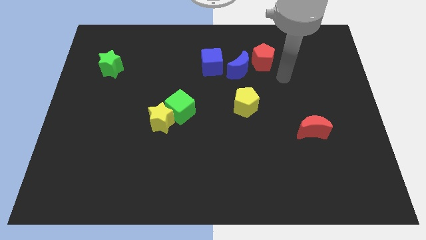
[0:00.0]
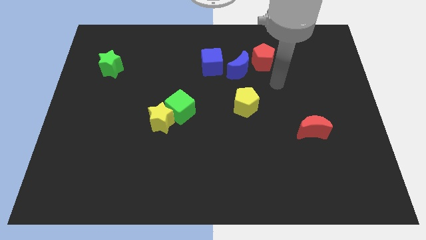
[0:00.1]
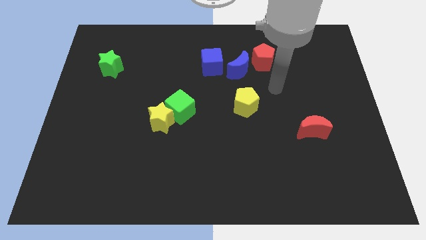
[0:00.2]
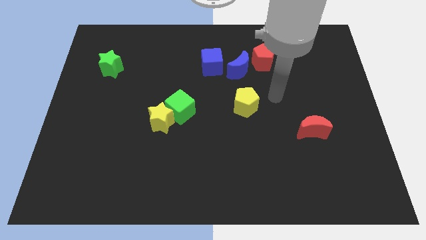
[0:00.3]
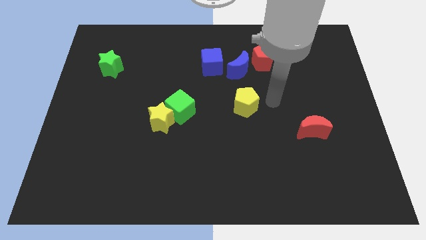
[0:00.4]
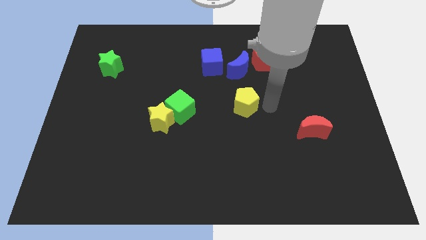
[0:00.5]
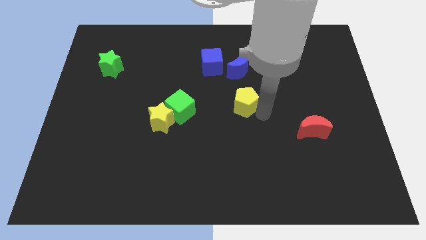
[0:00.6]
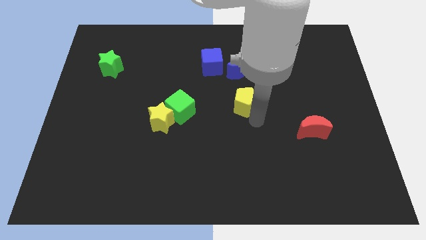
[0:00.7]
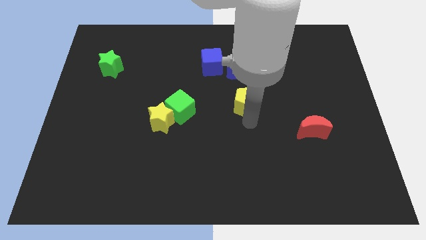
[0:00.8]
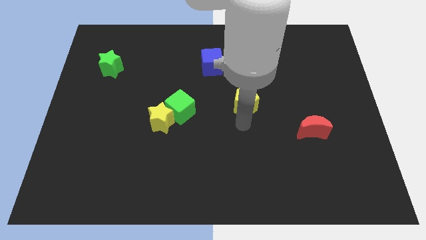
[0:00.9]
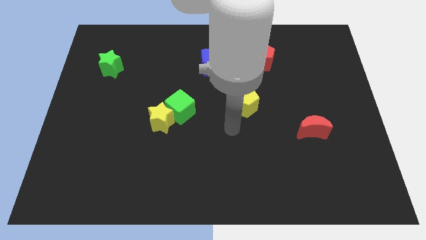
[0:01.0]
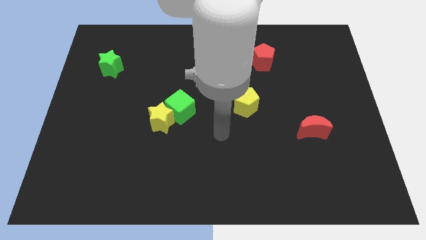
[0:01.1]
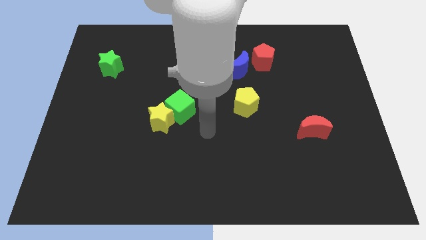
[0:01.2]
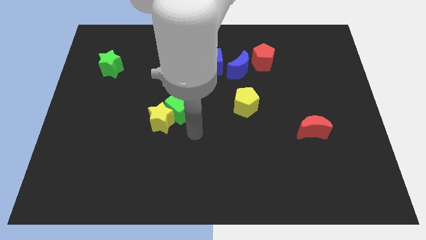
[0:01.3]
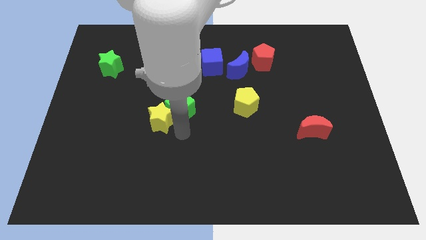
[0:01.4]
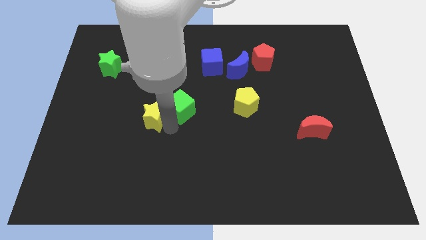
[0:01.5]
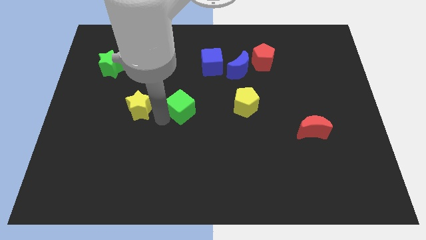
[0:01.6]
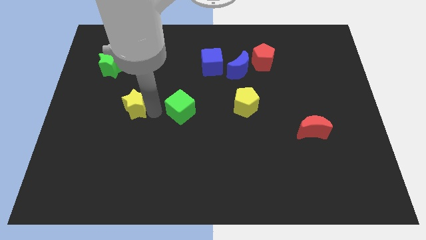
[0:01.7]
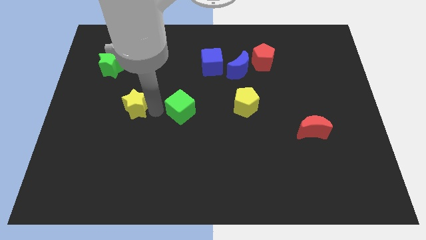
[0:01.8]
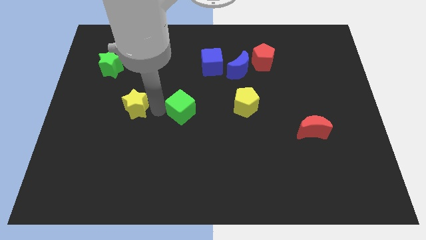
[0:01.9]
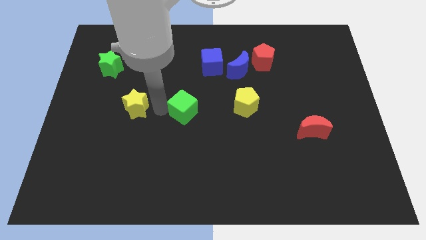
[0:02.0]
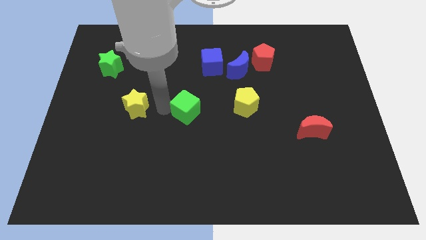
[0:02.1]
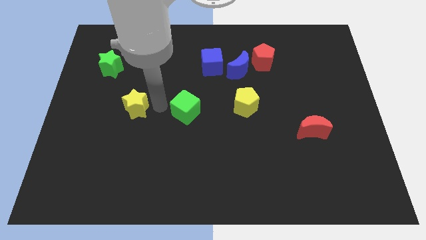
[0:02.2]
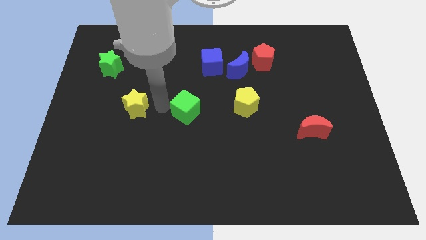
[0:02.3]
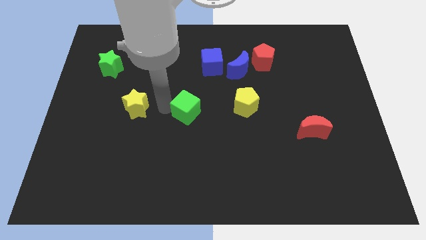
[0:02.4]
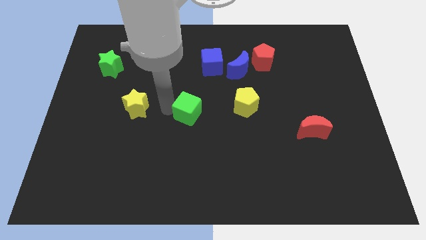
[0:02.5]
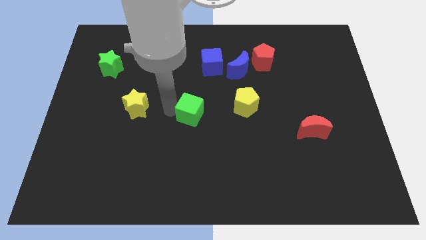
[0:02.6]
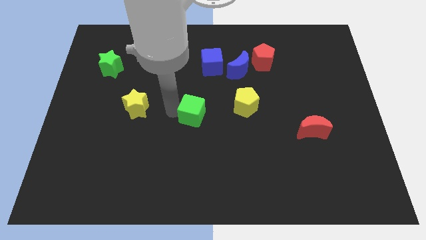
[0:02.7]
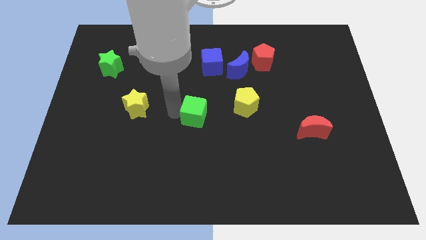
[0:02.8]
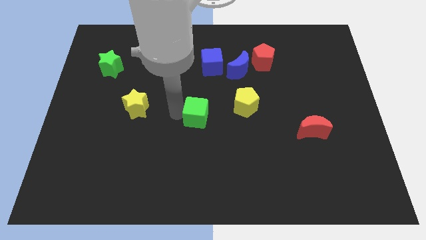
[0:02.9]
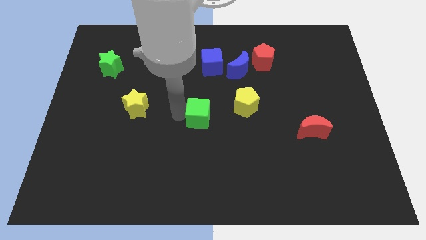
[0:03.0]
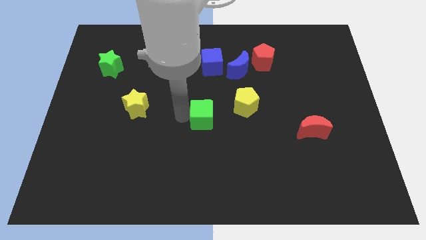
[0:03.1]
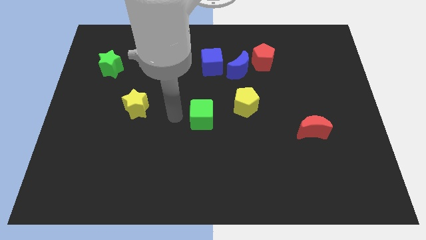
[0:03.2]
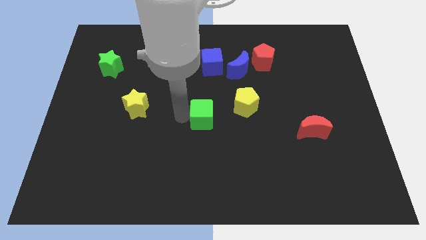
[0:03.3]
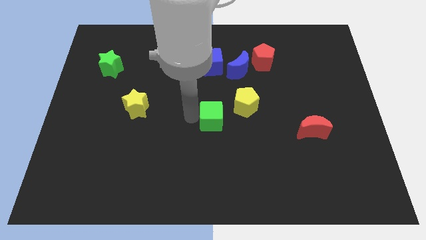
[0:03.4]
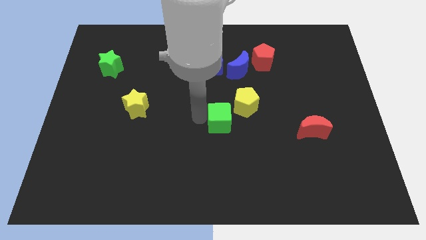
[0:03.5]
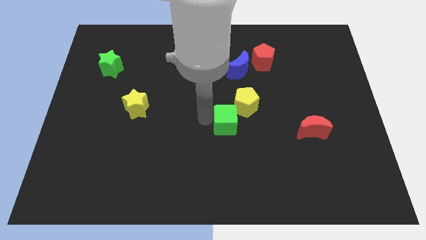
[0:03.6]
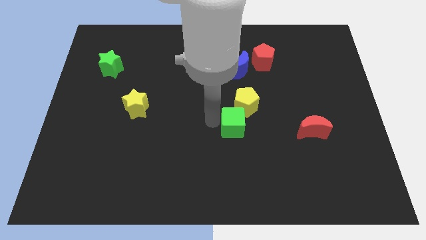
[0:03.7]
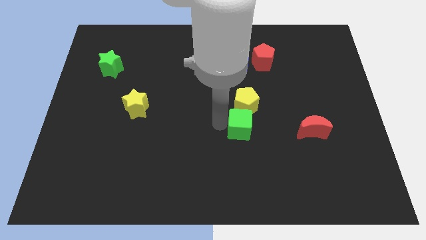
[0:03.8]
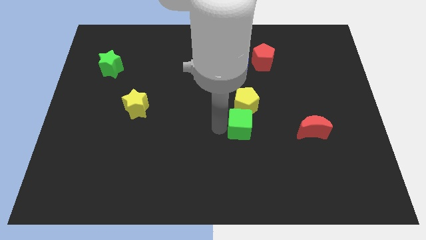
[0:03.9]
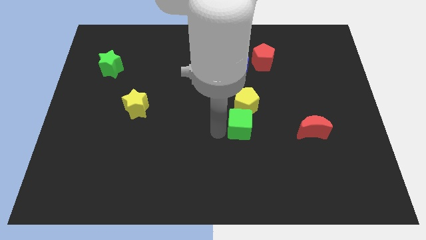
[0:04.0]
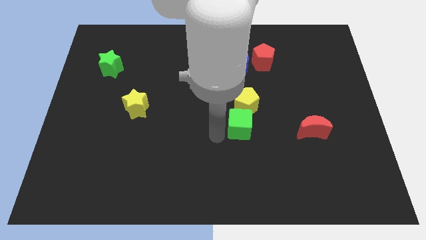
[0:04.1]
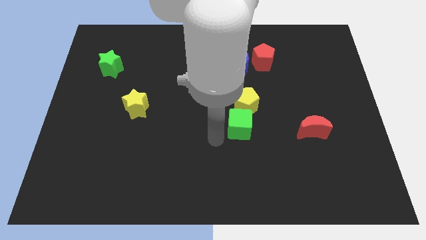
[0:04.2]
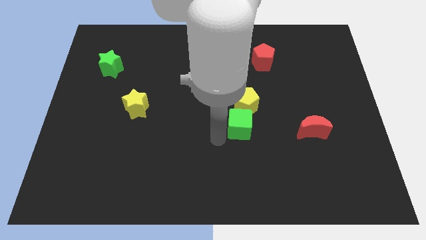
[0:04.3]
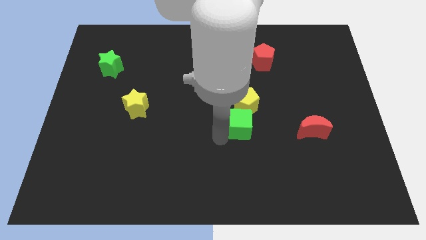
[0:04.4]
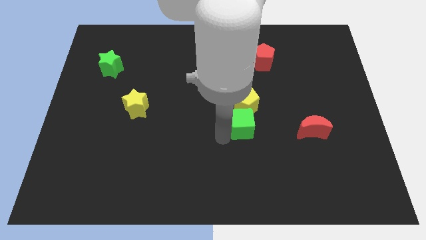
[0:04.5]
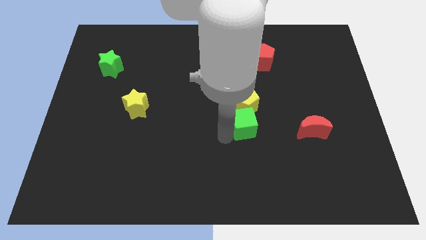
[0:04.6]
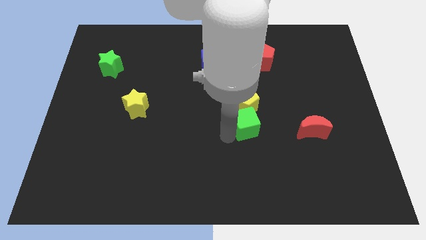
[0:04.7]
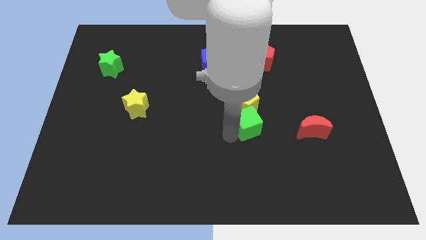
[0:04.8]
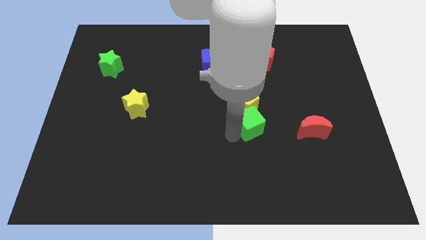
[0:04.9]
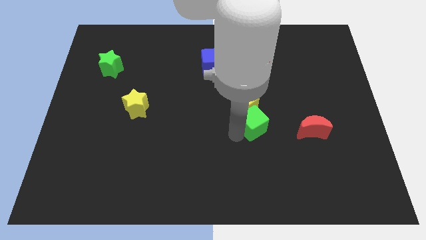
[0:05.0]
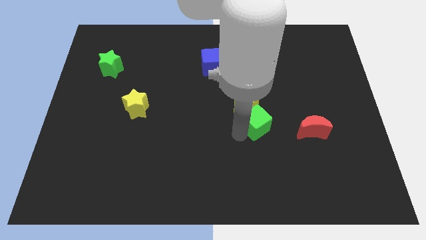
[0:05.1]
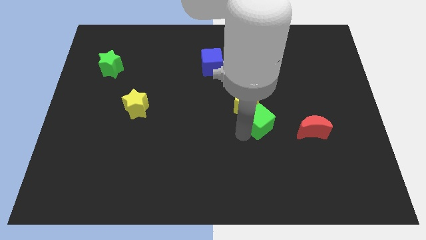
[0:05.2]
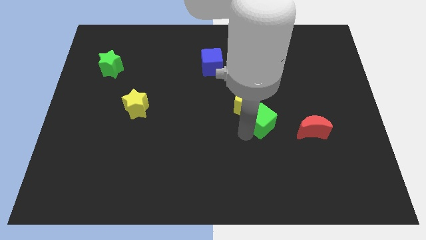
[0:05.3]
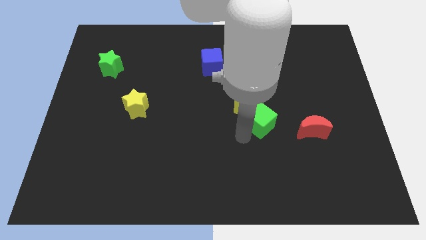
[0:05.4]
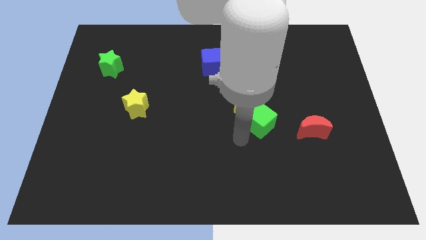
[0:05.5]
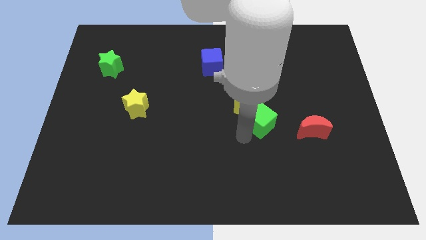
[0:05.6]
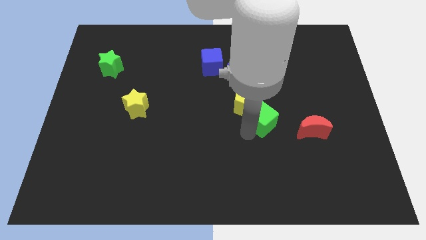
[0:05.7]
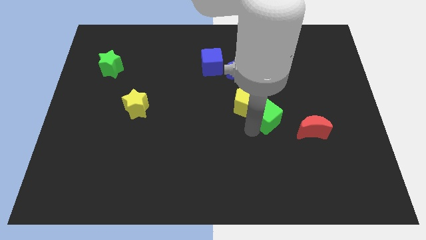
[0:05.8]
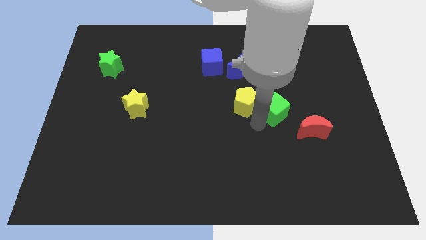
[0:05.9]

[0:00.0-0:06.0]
slide the green cube right

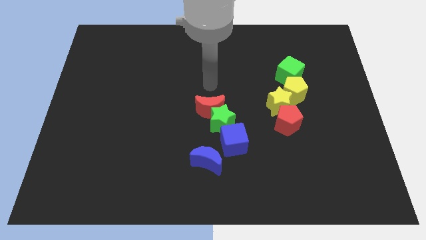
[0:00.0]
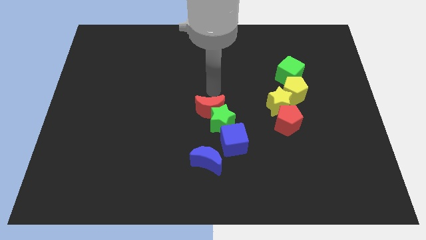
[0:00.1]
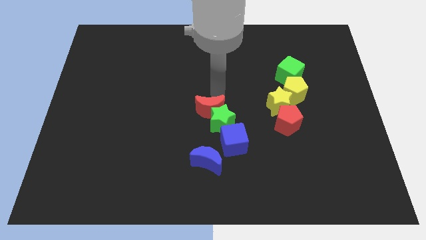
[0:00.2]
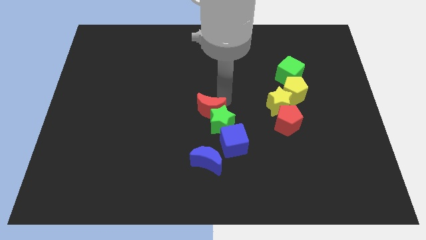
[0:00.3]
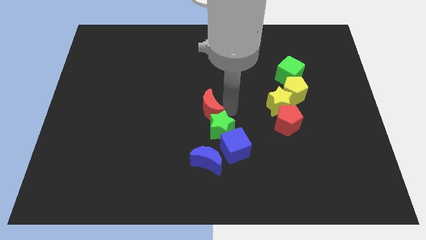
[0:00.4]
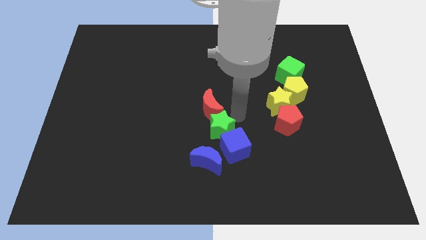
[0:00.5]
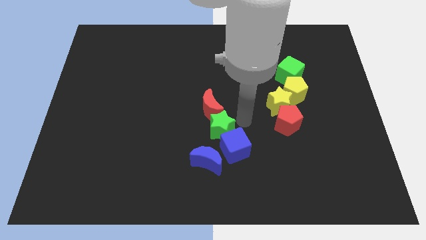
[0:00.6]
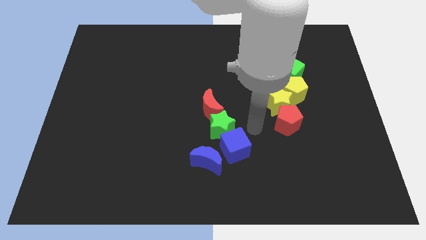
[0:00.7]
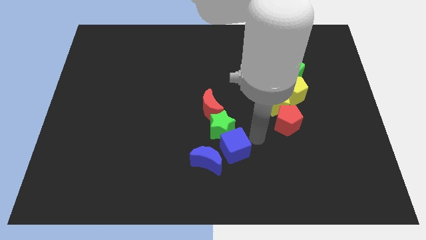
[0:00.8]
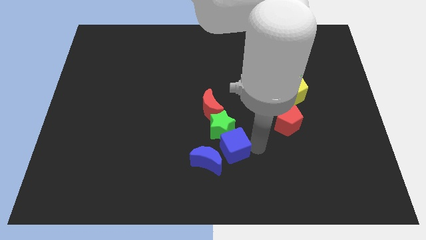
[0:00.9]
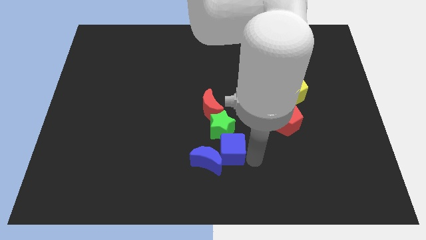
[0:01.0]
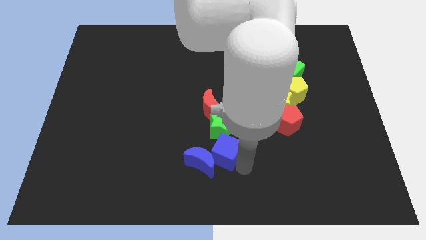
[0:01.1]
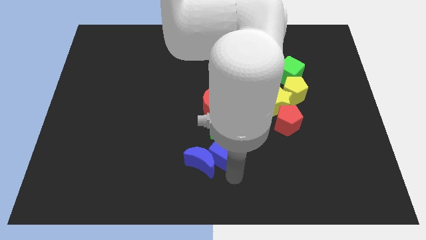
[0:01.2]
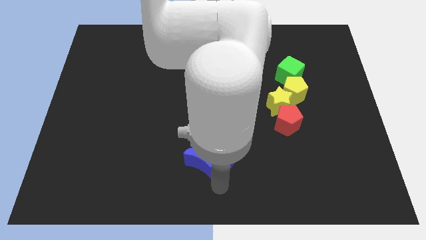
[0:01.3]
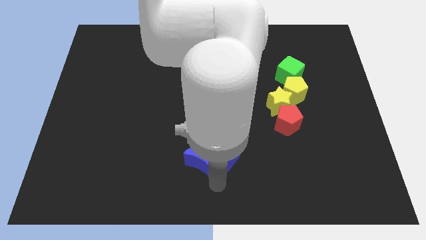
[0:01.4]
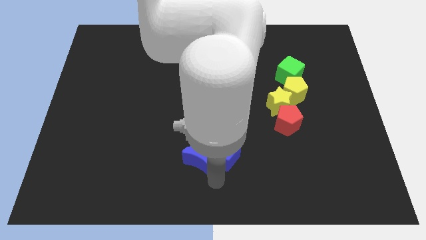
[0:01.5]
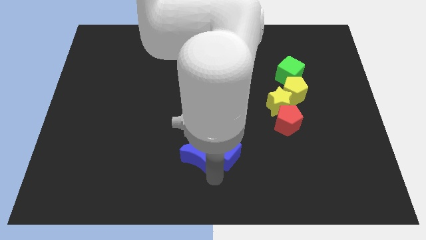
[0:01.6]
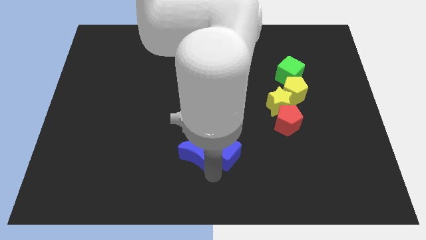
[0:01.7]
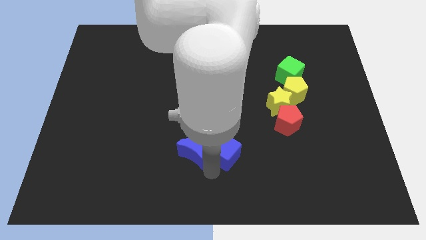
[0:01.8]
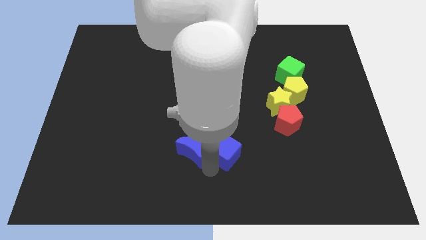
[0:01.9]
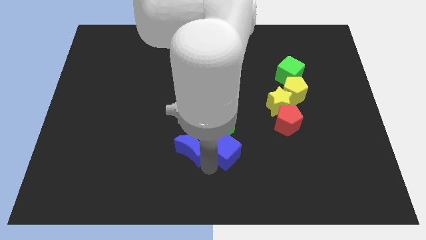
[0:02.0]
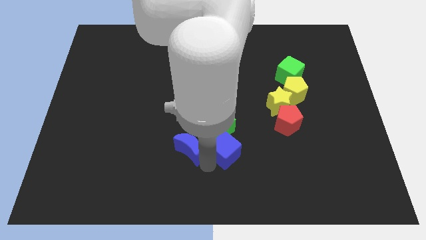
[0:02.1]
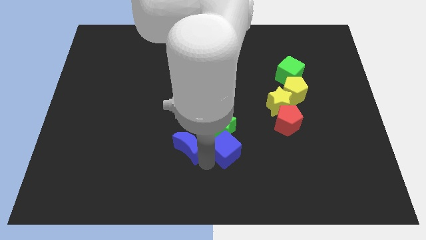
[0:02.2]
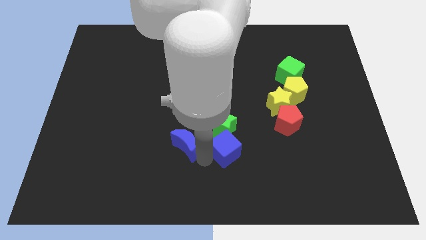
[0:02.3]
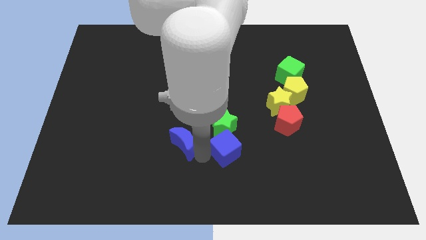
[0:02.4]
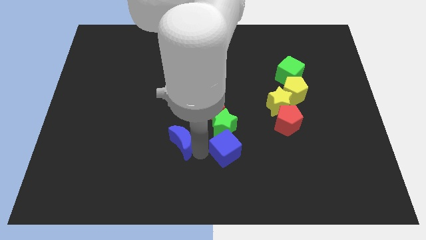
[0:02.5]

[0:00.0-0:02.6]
push the blue moon somewhat upwards and to the left
